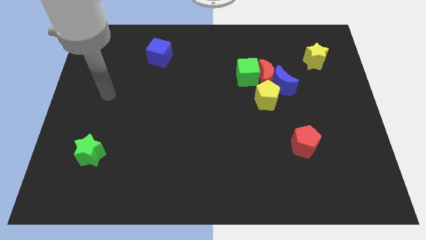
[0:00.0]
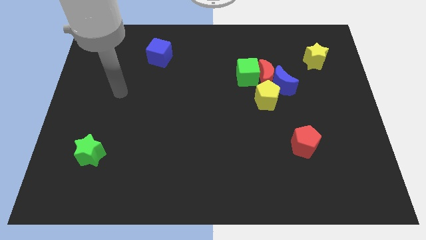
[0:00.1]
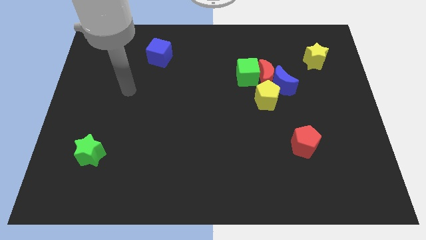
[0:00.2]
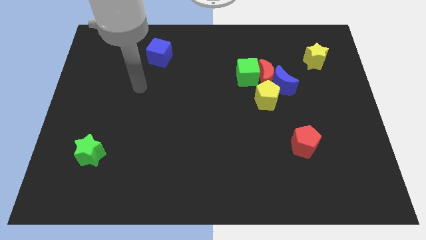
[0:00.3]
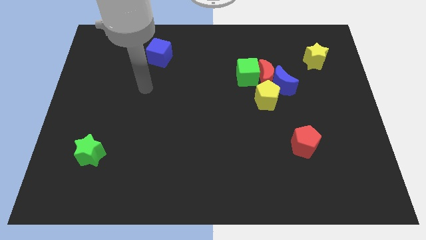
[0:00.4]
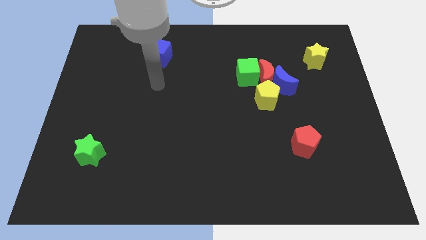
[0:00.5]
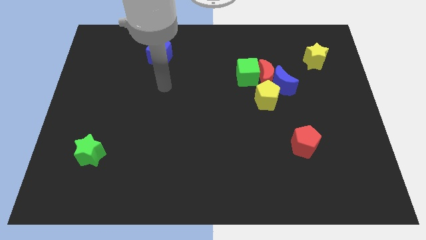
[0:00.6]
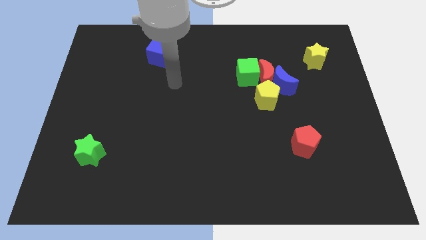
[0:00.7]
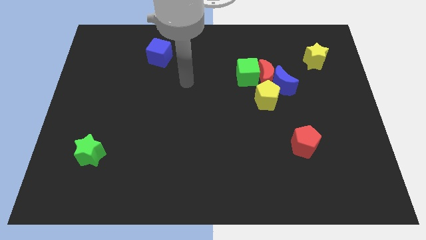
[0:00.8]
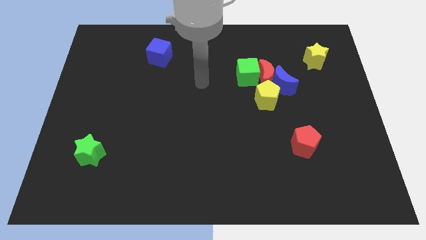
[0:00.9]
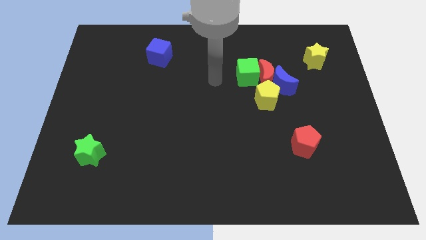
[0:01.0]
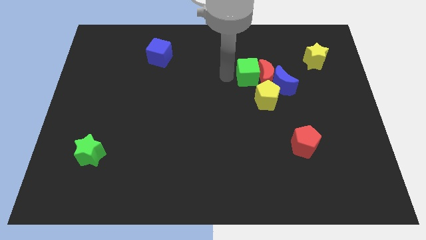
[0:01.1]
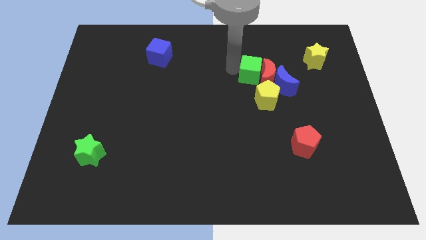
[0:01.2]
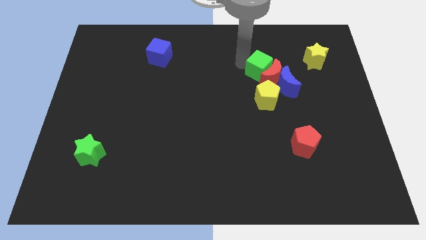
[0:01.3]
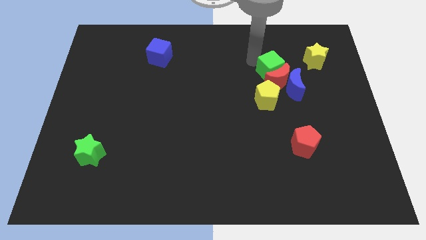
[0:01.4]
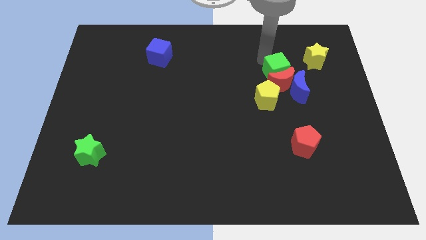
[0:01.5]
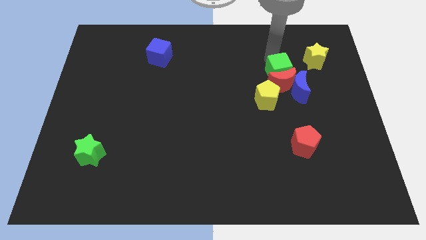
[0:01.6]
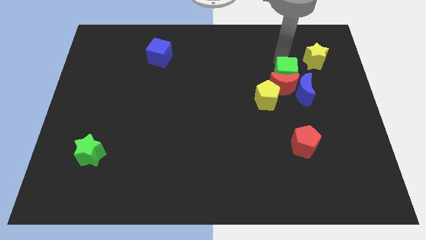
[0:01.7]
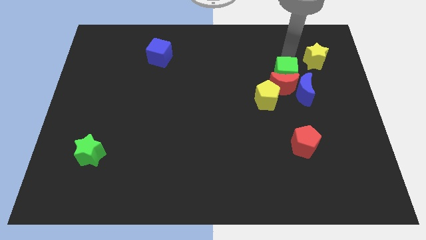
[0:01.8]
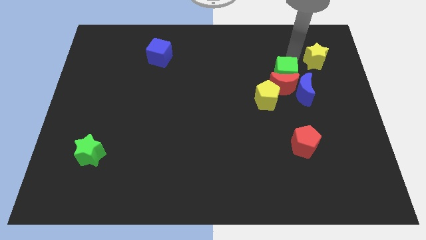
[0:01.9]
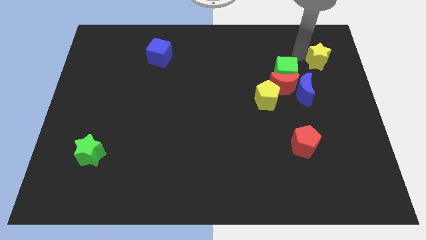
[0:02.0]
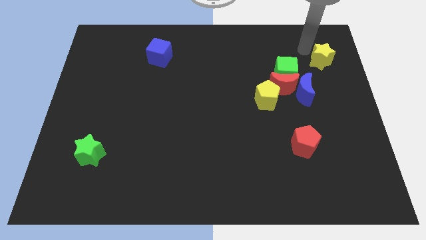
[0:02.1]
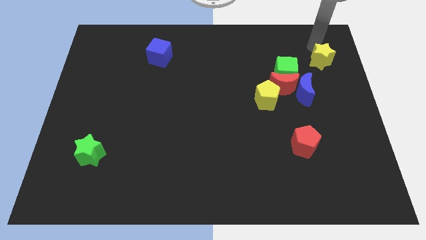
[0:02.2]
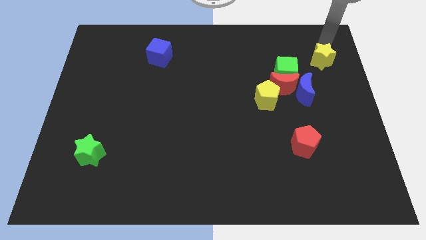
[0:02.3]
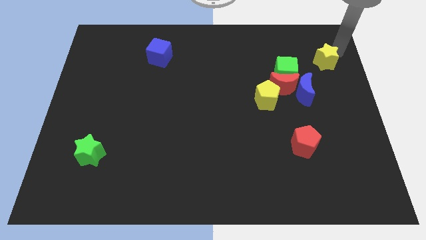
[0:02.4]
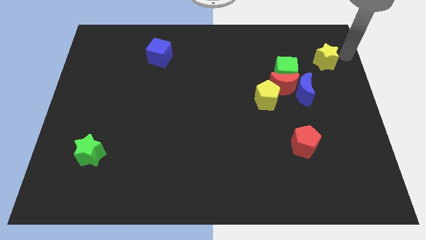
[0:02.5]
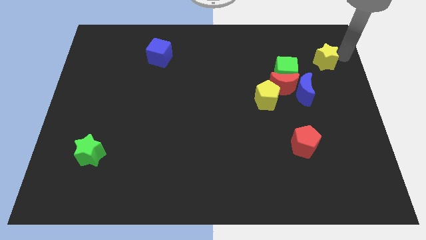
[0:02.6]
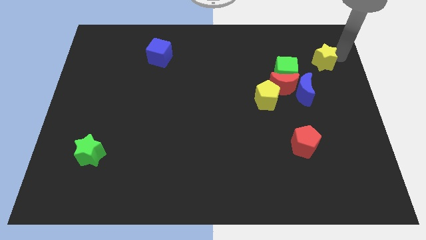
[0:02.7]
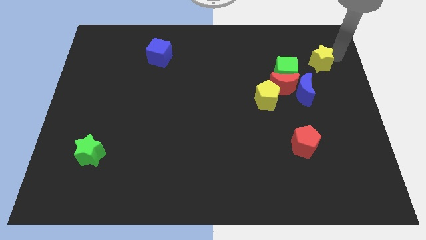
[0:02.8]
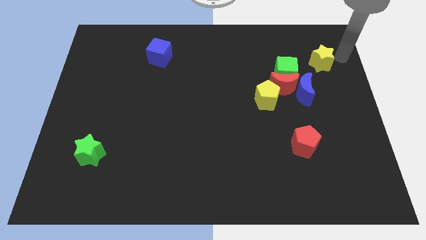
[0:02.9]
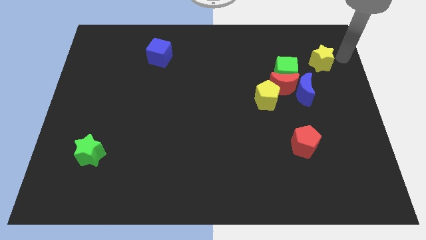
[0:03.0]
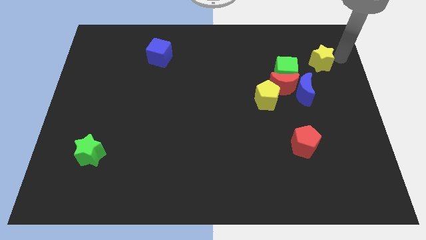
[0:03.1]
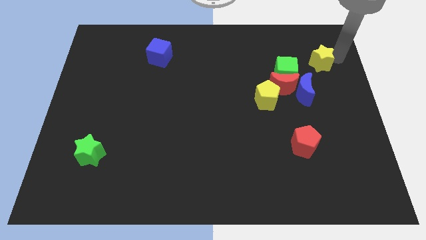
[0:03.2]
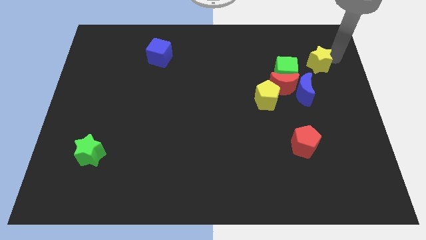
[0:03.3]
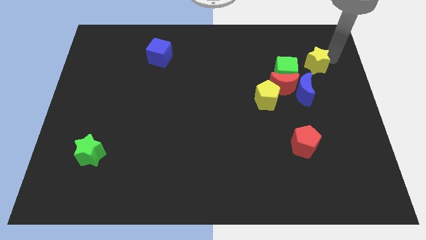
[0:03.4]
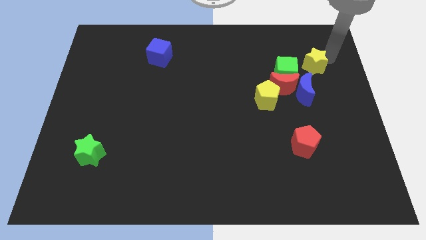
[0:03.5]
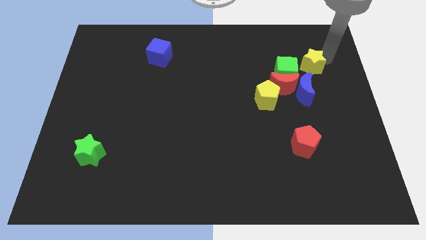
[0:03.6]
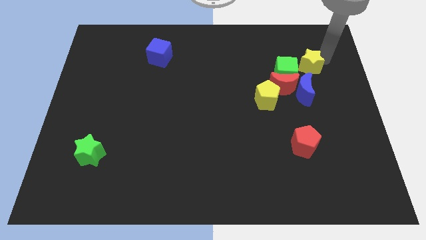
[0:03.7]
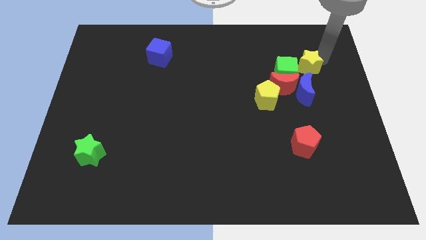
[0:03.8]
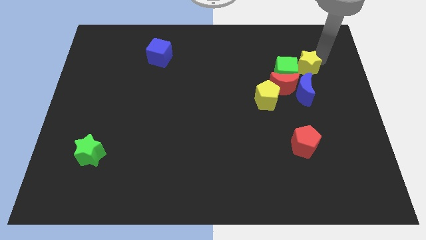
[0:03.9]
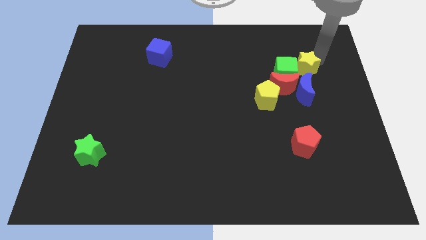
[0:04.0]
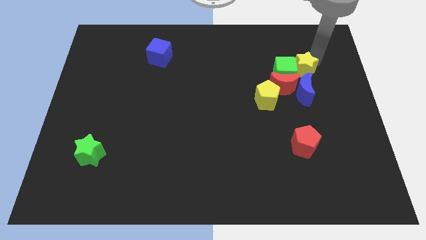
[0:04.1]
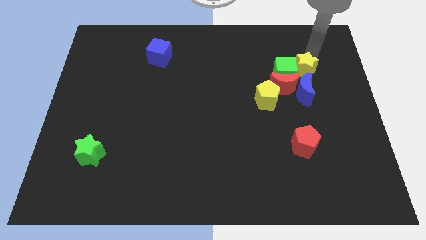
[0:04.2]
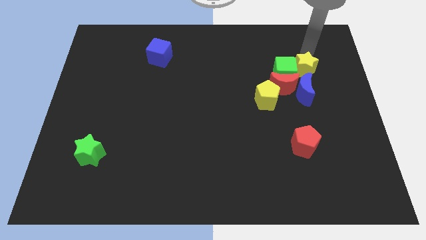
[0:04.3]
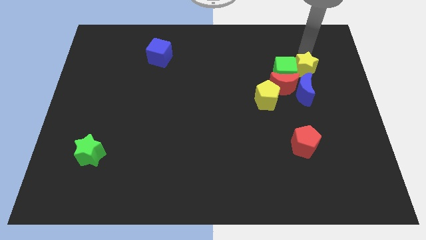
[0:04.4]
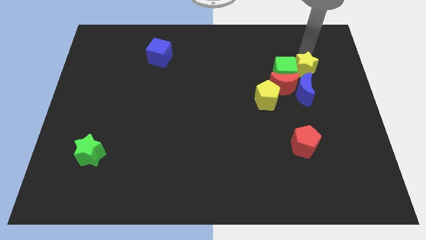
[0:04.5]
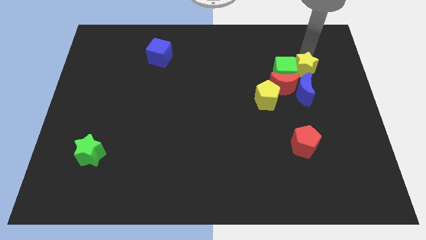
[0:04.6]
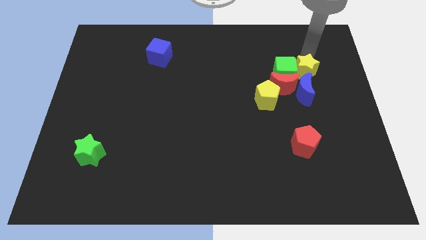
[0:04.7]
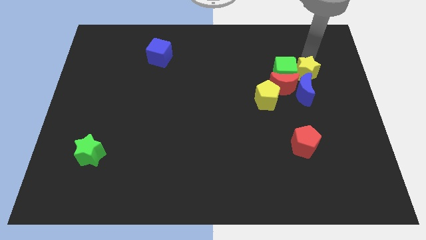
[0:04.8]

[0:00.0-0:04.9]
put the yellow star next to the blue moon

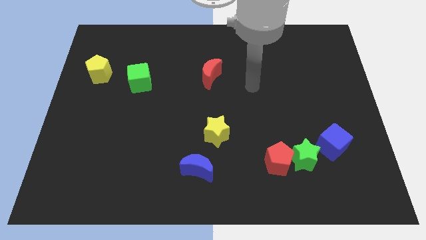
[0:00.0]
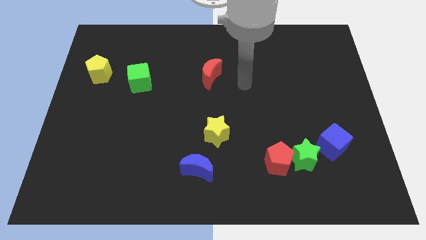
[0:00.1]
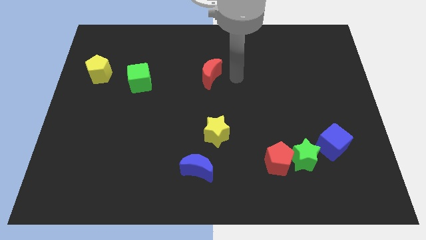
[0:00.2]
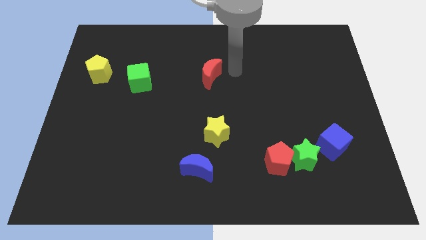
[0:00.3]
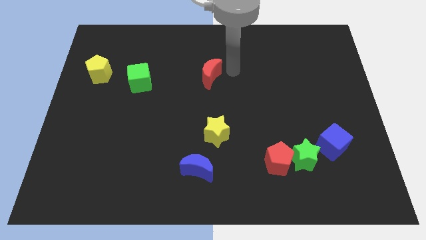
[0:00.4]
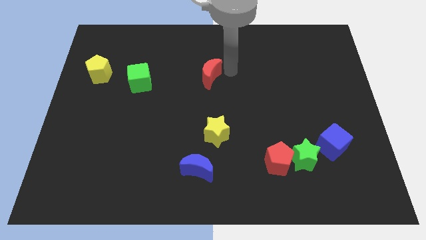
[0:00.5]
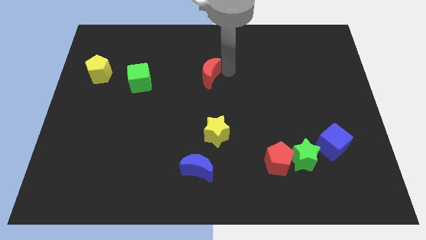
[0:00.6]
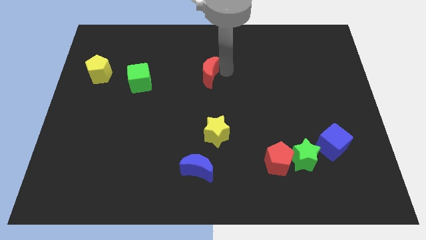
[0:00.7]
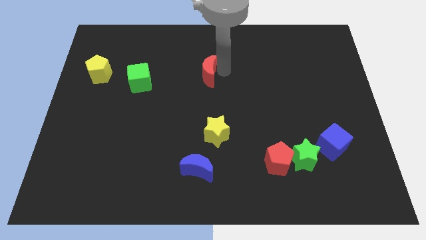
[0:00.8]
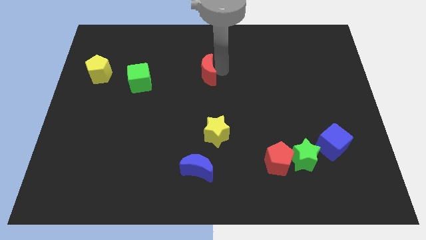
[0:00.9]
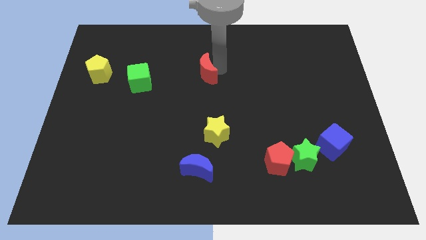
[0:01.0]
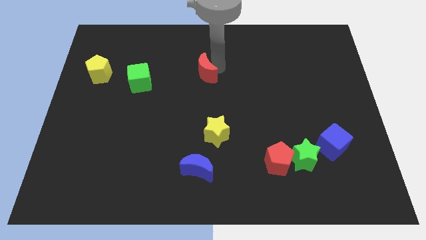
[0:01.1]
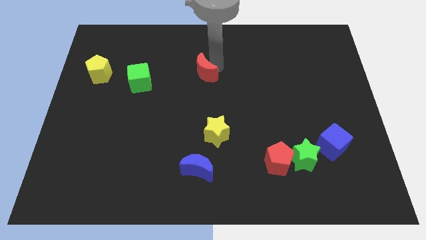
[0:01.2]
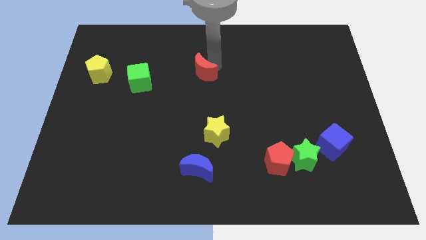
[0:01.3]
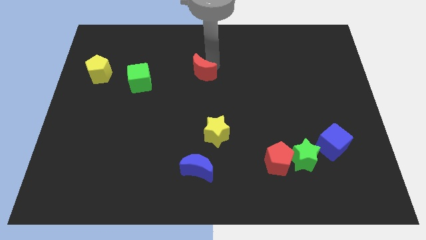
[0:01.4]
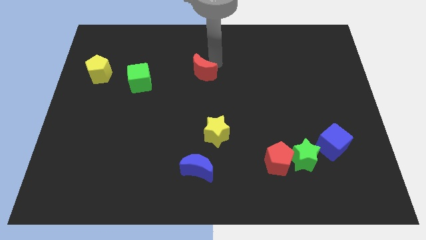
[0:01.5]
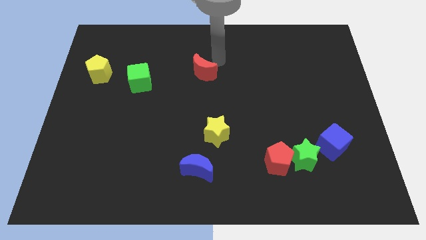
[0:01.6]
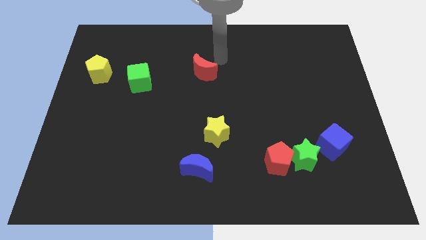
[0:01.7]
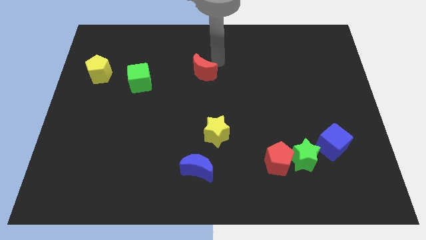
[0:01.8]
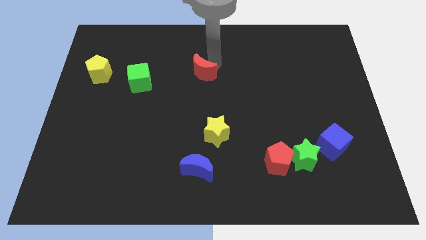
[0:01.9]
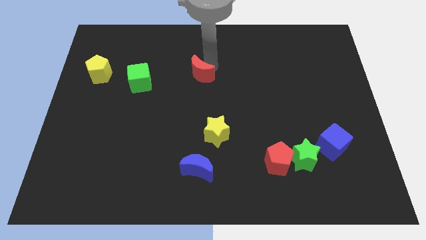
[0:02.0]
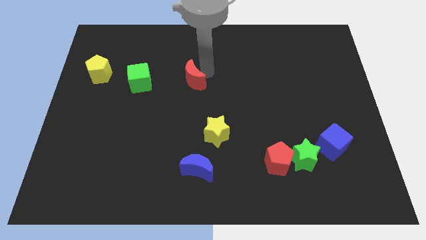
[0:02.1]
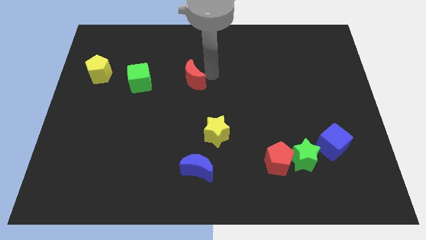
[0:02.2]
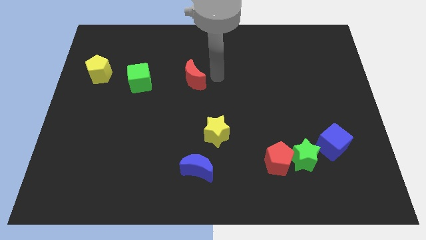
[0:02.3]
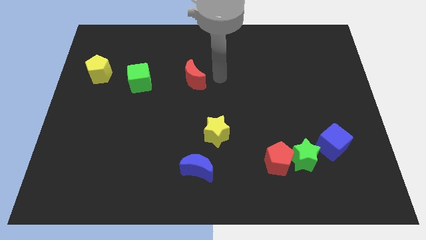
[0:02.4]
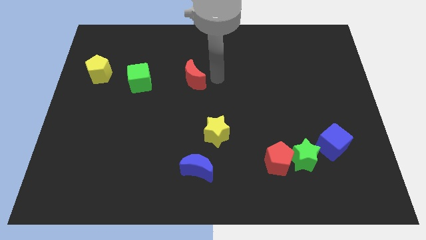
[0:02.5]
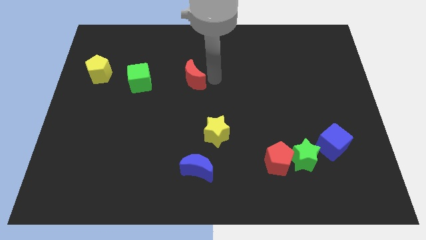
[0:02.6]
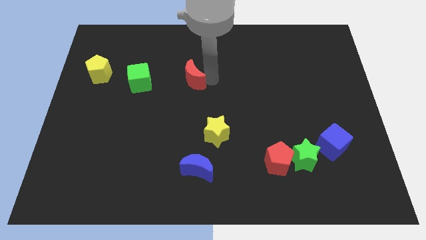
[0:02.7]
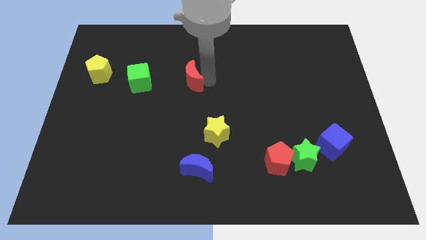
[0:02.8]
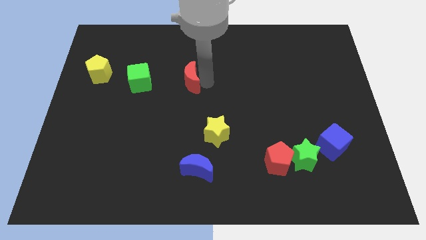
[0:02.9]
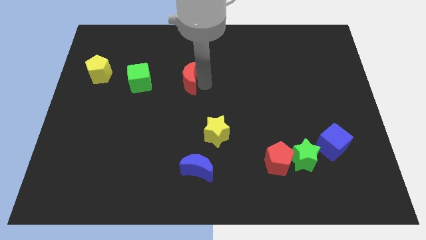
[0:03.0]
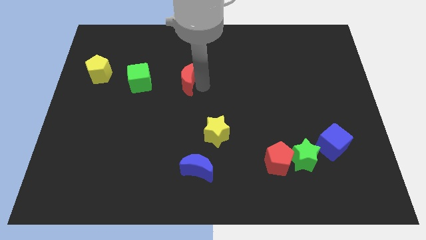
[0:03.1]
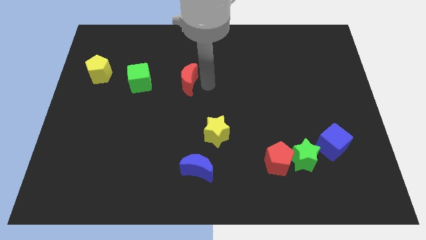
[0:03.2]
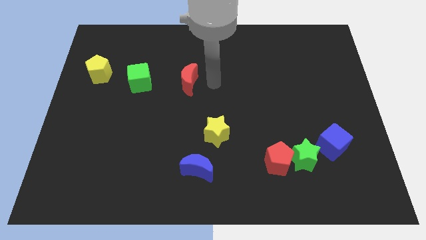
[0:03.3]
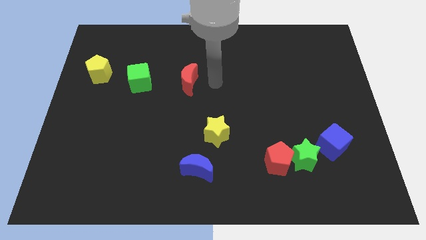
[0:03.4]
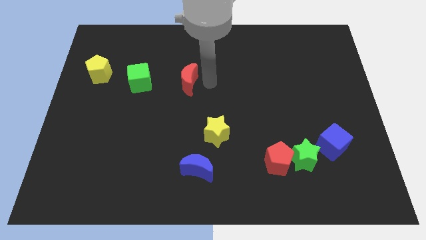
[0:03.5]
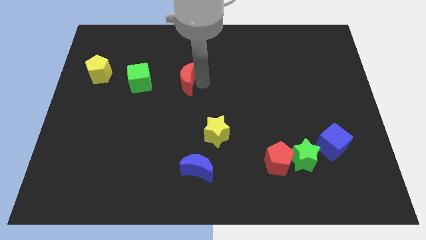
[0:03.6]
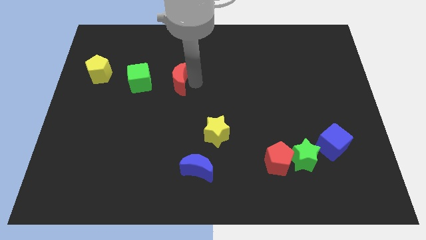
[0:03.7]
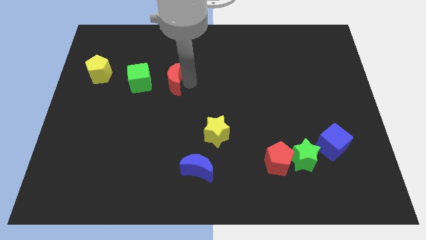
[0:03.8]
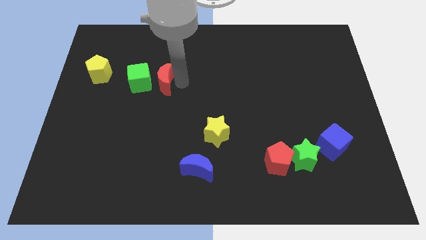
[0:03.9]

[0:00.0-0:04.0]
move the red moon next to the green cube
